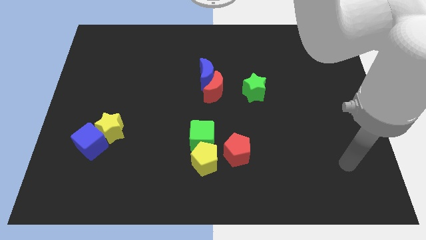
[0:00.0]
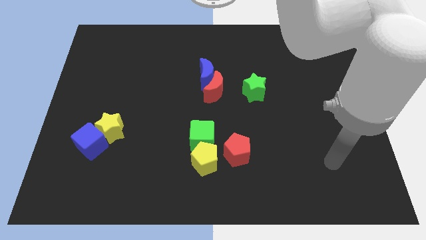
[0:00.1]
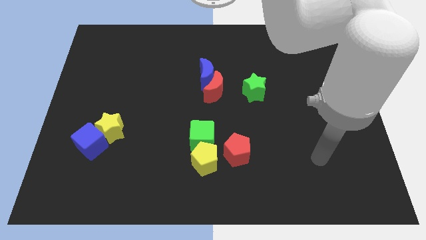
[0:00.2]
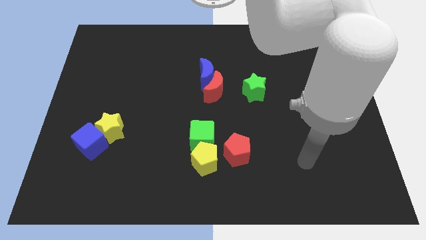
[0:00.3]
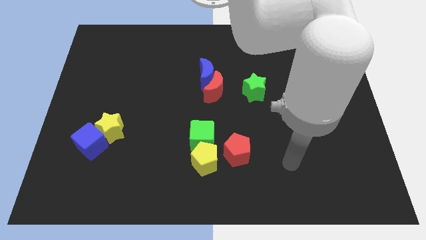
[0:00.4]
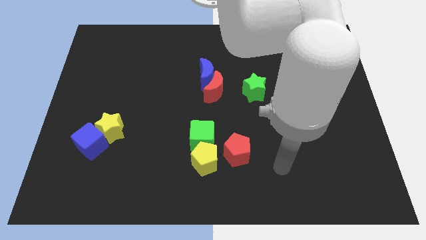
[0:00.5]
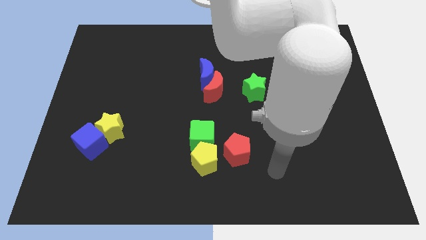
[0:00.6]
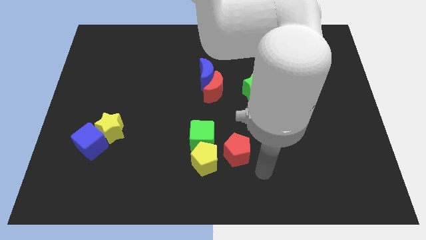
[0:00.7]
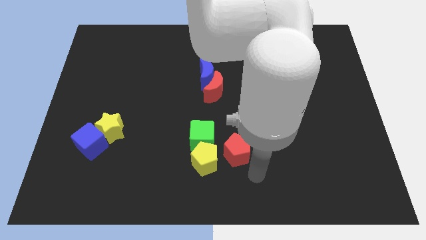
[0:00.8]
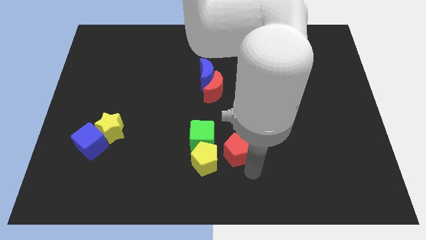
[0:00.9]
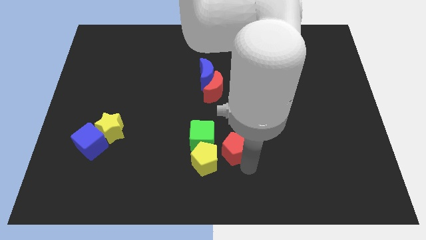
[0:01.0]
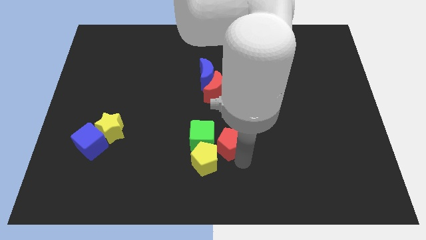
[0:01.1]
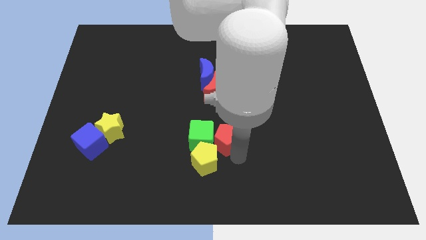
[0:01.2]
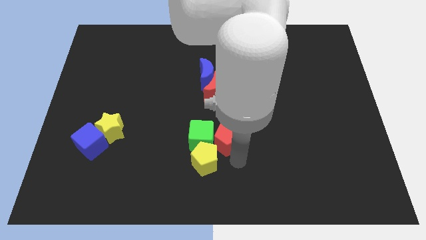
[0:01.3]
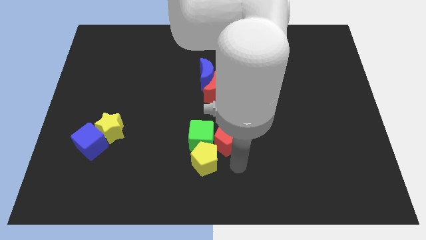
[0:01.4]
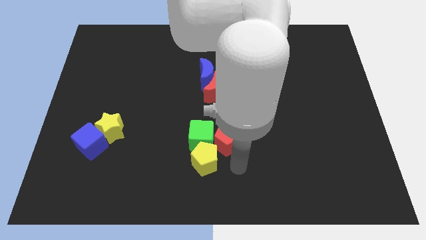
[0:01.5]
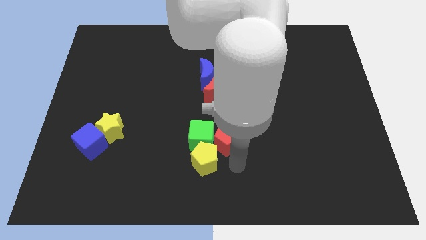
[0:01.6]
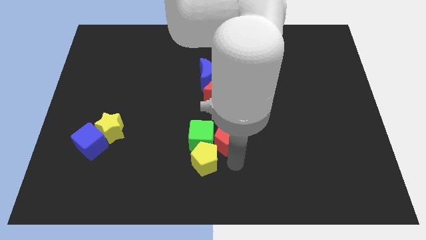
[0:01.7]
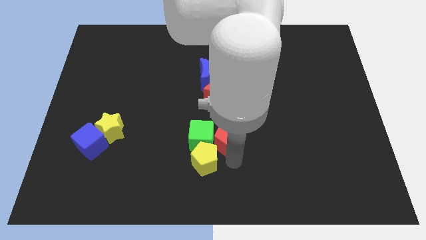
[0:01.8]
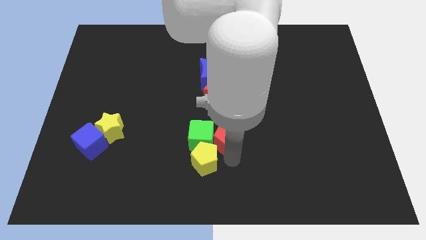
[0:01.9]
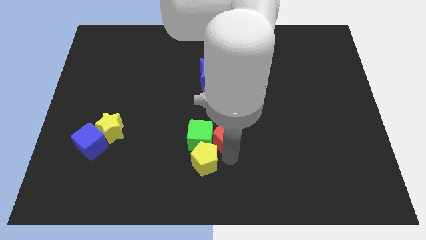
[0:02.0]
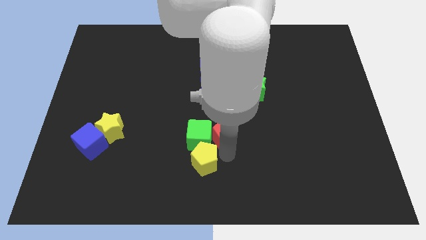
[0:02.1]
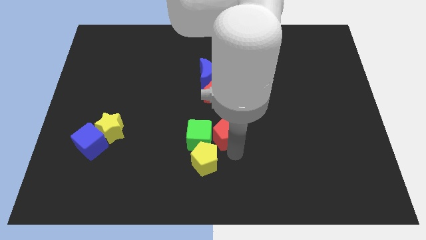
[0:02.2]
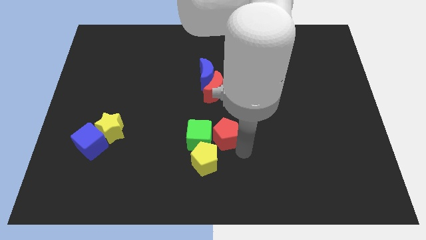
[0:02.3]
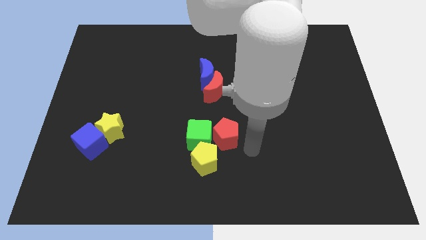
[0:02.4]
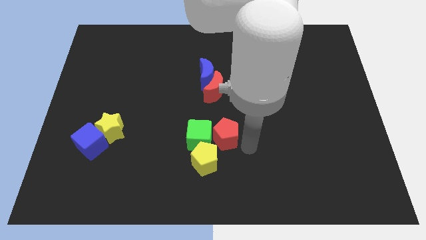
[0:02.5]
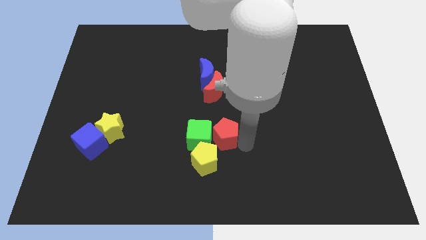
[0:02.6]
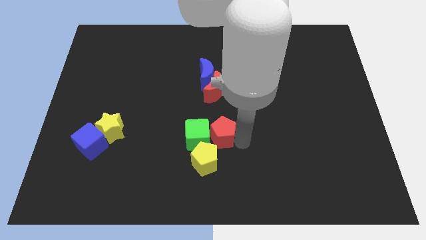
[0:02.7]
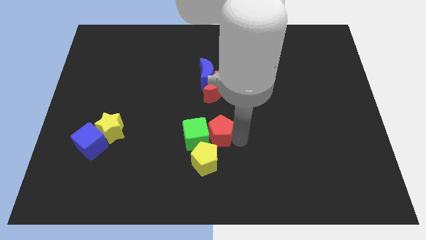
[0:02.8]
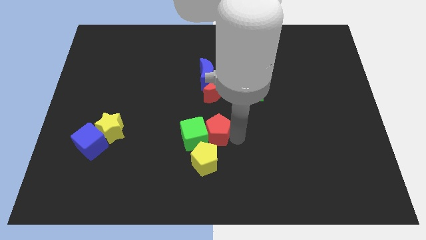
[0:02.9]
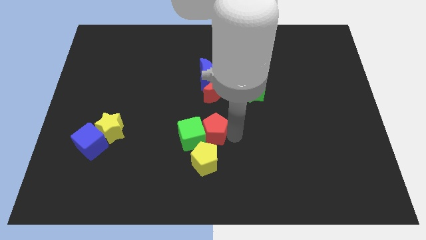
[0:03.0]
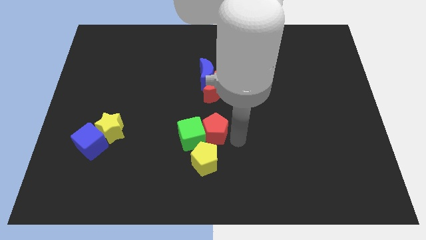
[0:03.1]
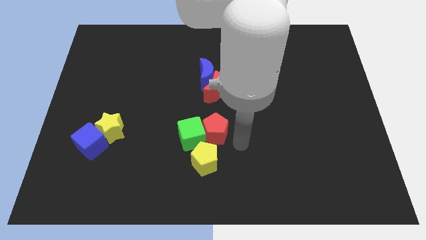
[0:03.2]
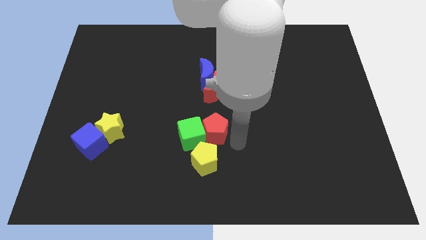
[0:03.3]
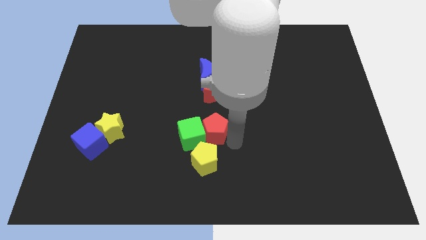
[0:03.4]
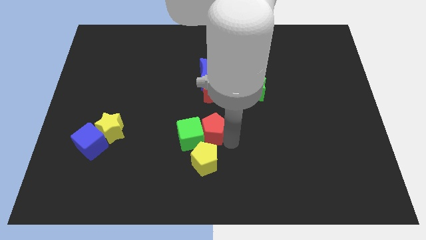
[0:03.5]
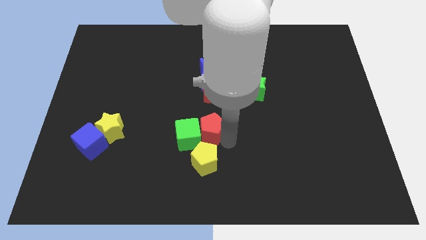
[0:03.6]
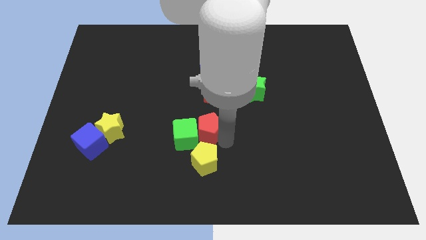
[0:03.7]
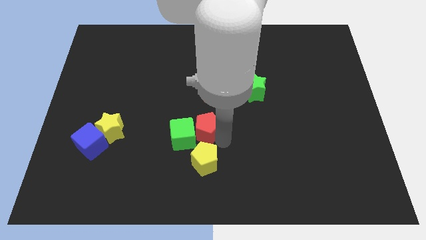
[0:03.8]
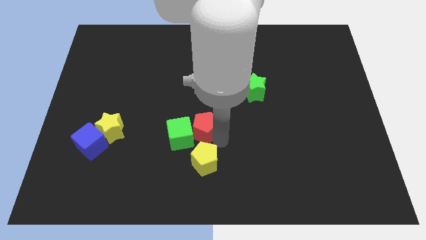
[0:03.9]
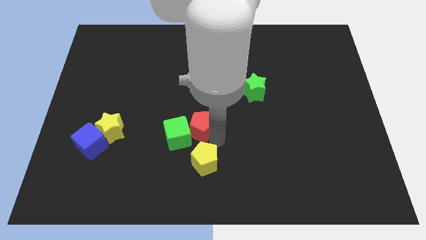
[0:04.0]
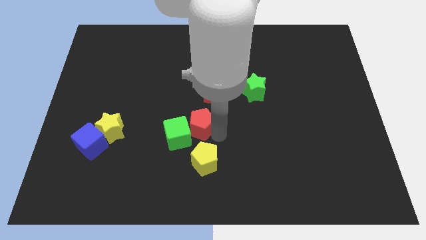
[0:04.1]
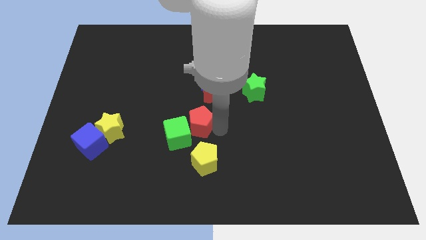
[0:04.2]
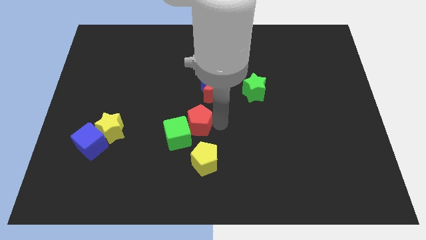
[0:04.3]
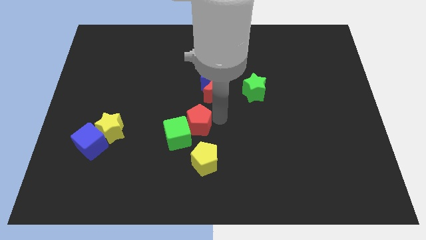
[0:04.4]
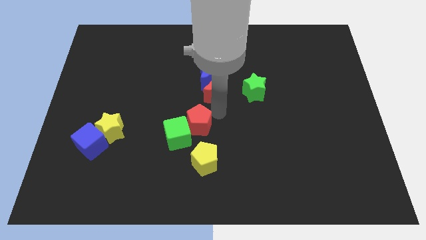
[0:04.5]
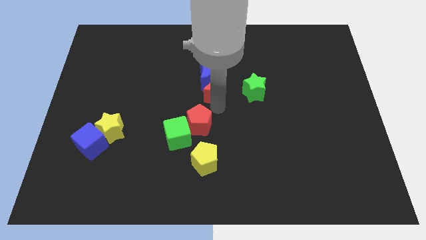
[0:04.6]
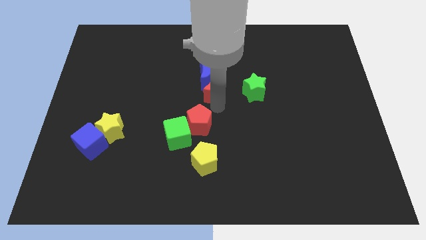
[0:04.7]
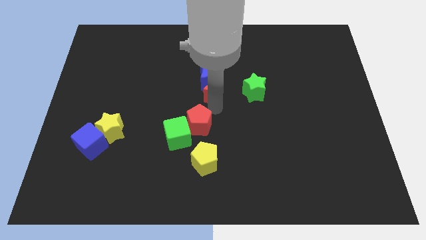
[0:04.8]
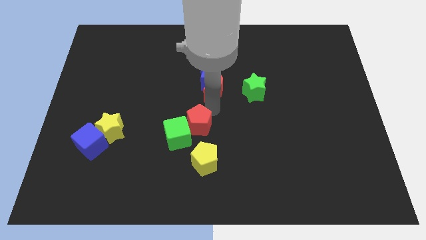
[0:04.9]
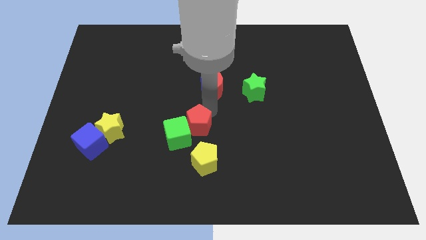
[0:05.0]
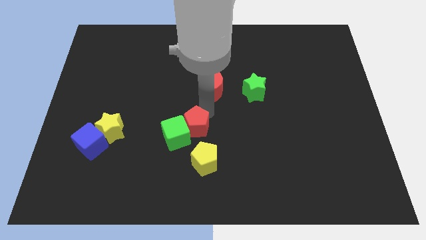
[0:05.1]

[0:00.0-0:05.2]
move the red pentagon to the top left side of the yellow pentagon

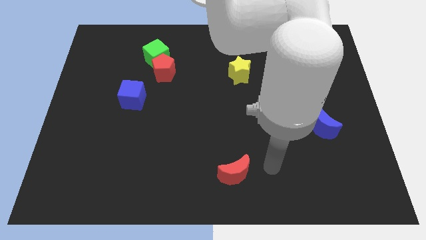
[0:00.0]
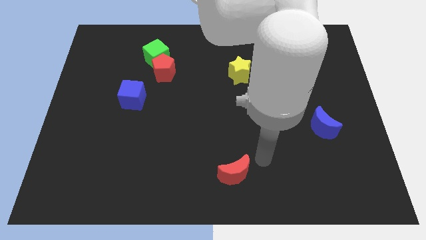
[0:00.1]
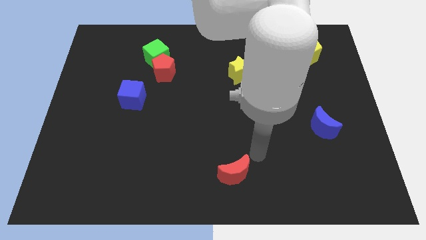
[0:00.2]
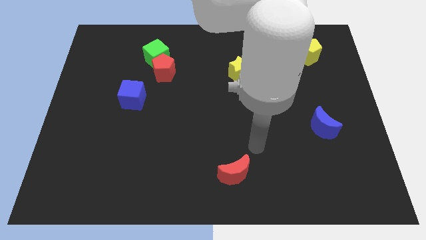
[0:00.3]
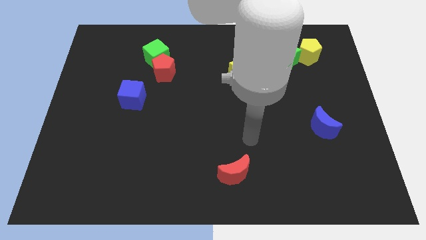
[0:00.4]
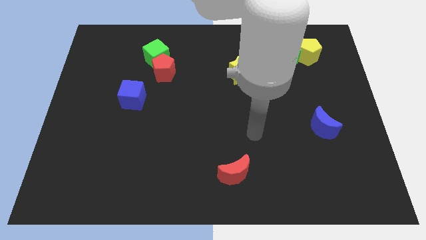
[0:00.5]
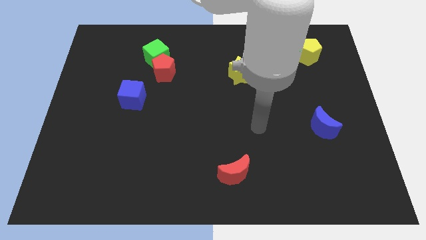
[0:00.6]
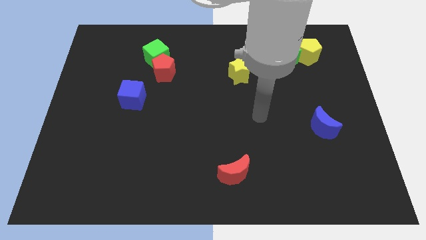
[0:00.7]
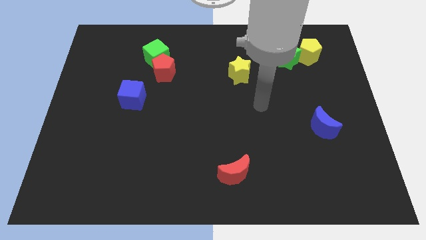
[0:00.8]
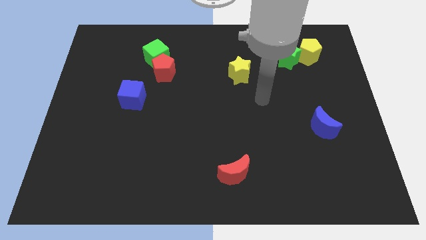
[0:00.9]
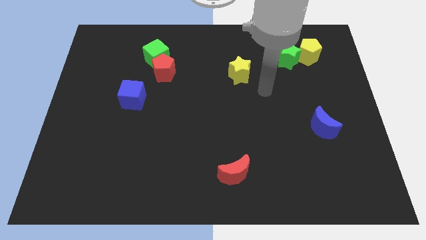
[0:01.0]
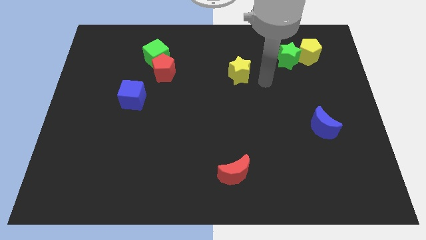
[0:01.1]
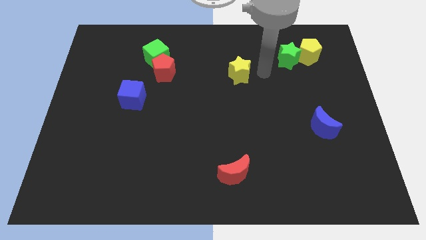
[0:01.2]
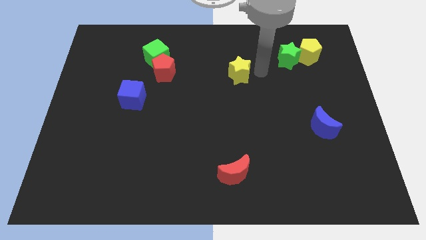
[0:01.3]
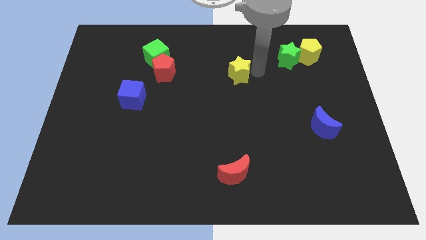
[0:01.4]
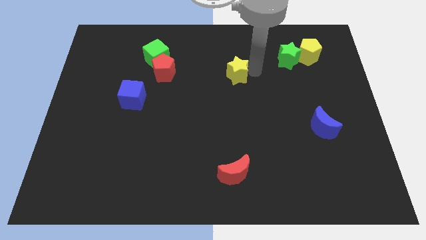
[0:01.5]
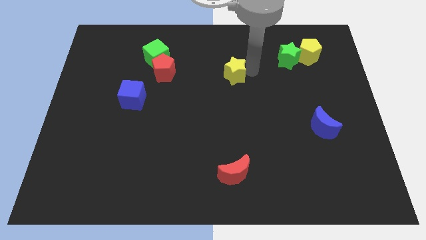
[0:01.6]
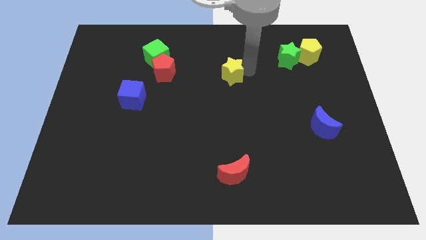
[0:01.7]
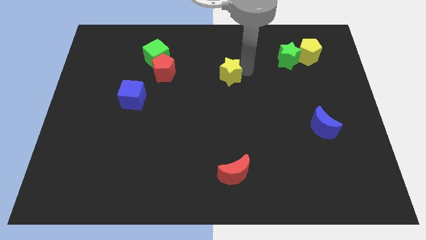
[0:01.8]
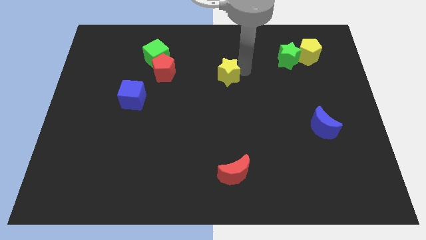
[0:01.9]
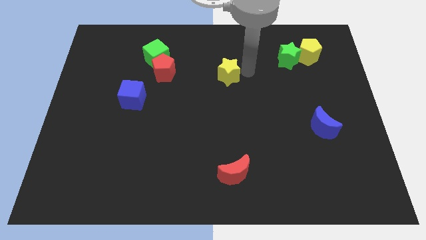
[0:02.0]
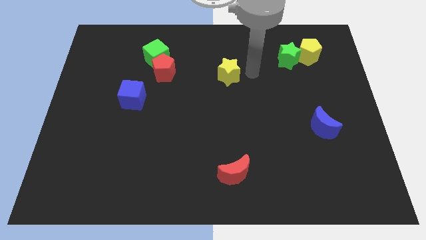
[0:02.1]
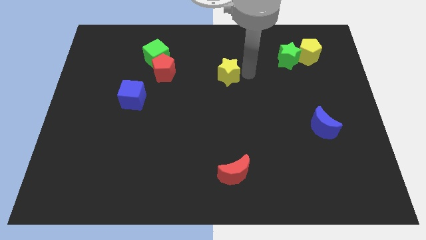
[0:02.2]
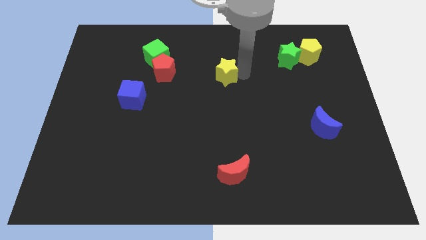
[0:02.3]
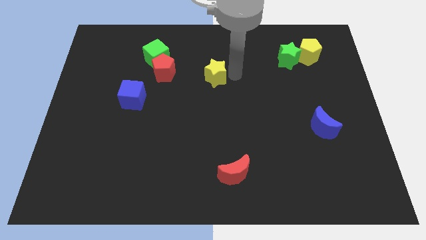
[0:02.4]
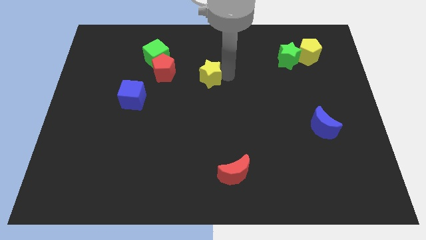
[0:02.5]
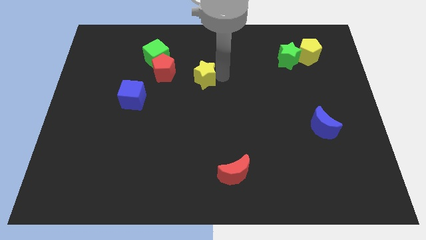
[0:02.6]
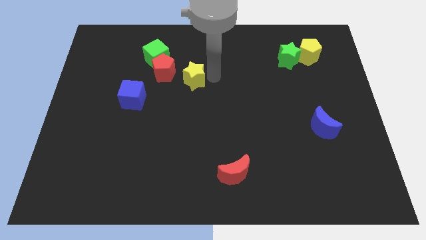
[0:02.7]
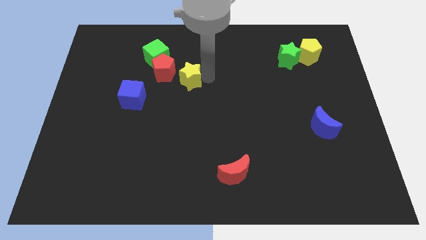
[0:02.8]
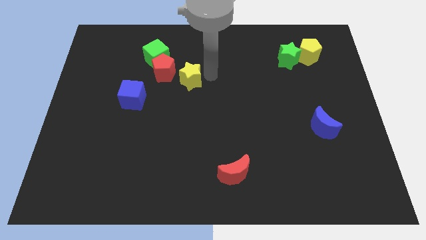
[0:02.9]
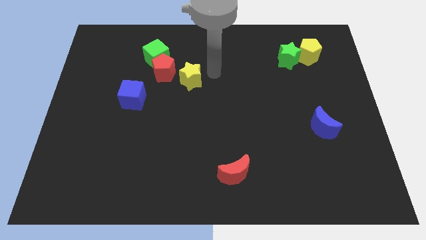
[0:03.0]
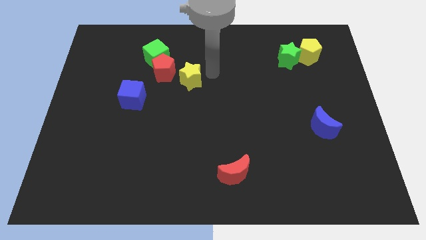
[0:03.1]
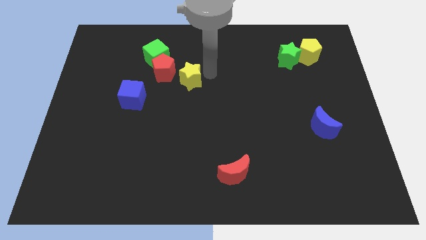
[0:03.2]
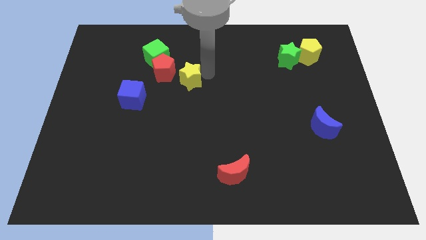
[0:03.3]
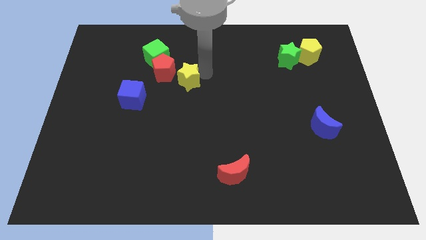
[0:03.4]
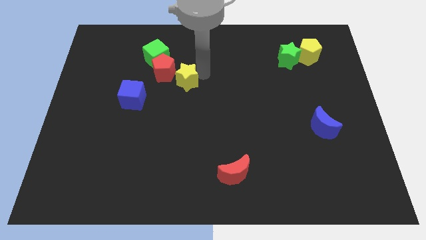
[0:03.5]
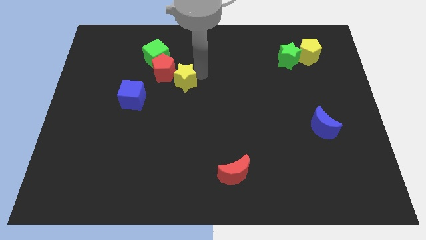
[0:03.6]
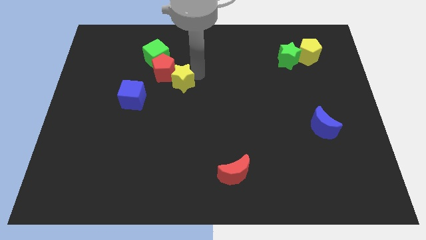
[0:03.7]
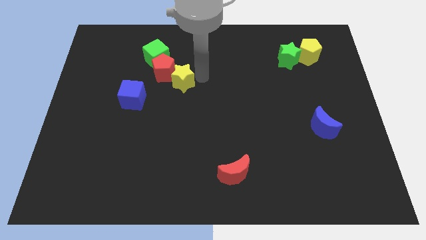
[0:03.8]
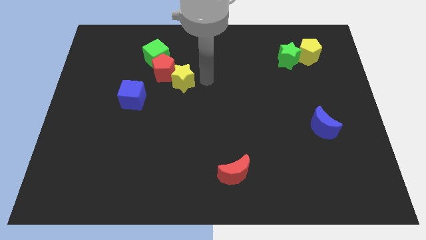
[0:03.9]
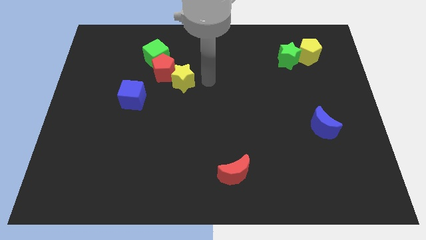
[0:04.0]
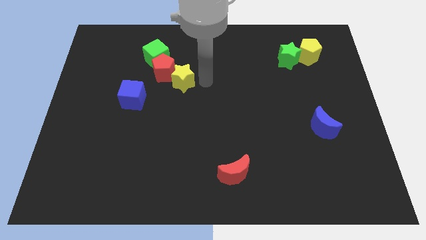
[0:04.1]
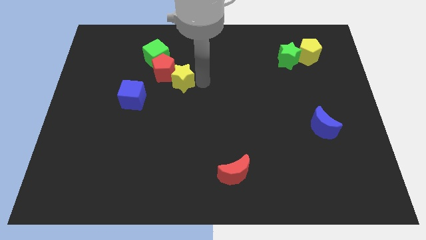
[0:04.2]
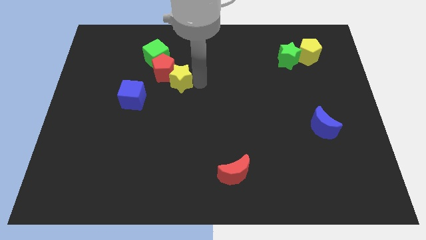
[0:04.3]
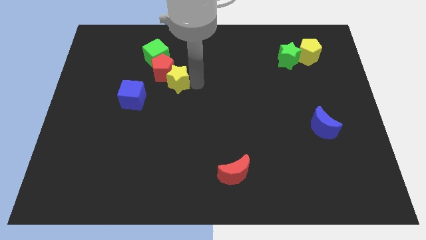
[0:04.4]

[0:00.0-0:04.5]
move the yellow star diagonally up and to the right of the blue cube
